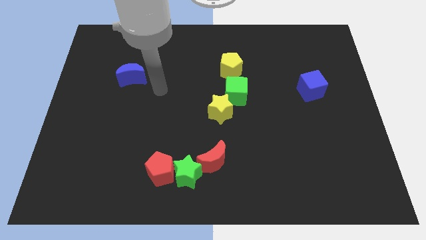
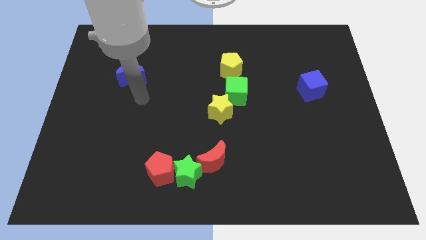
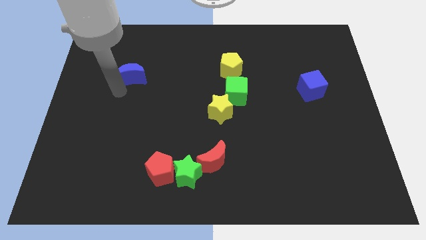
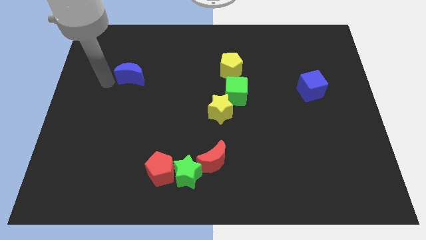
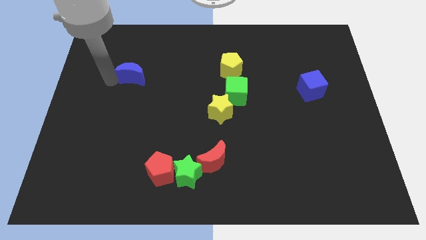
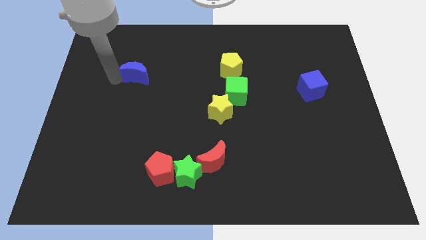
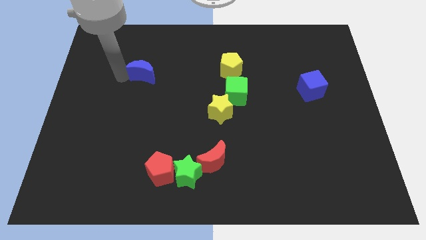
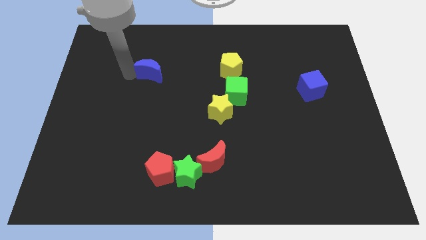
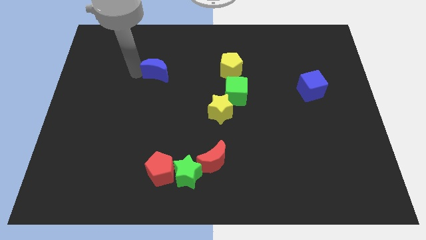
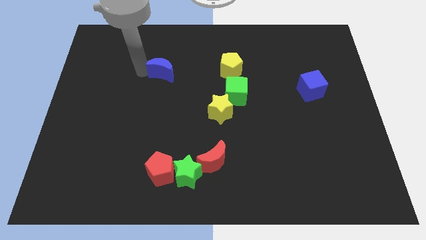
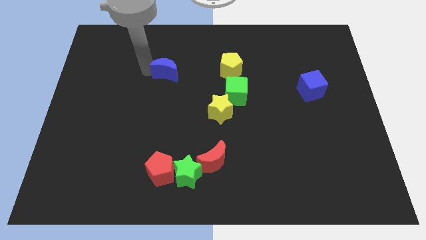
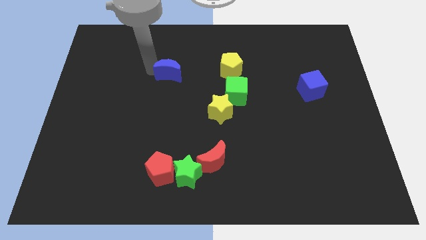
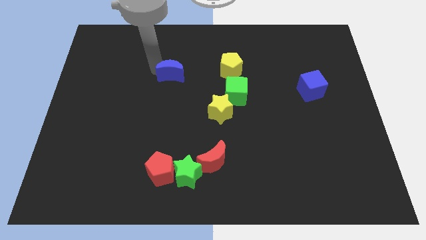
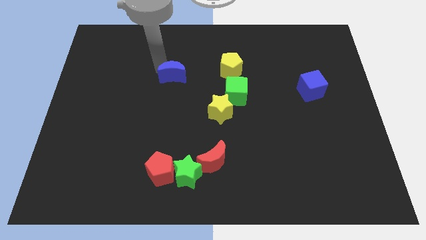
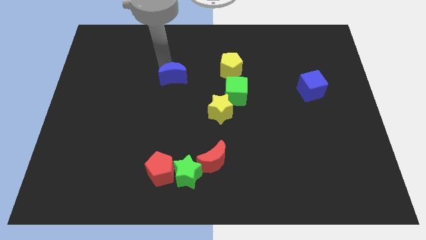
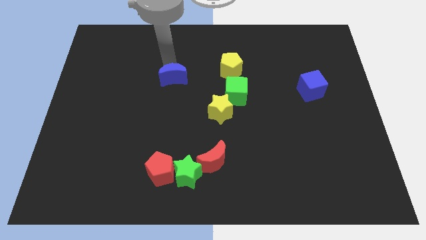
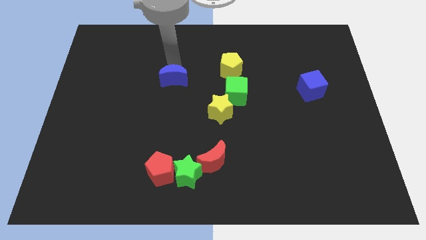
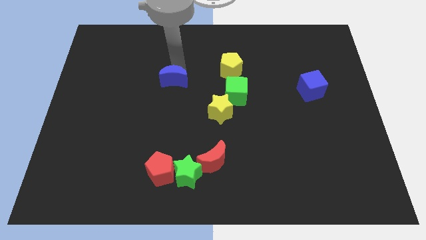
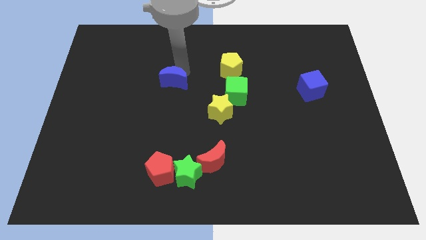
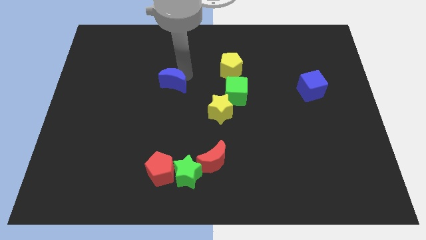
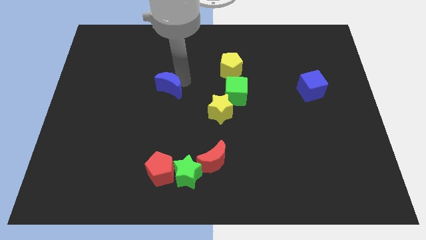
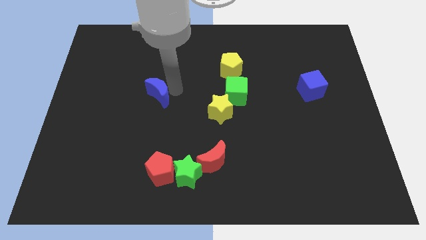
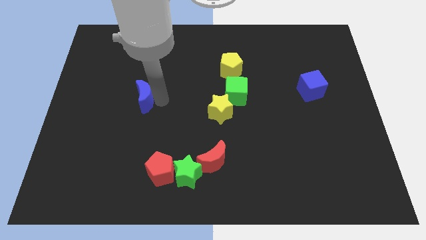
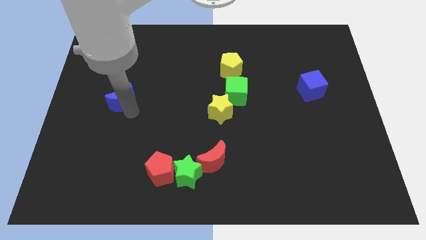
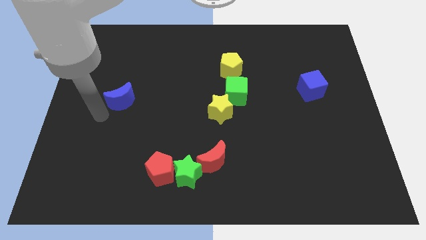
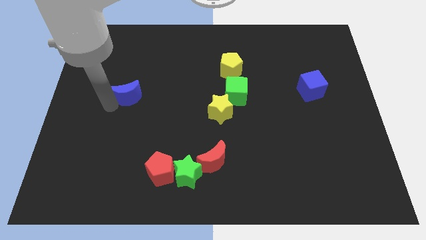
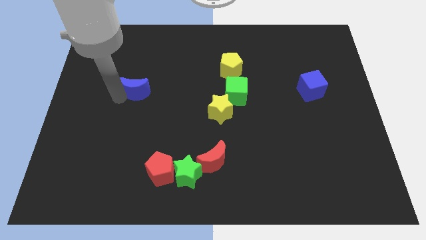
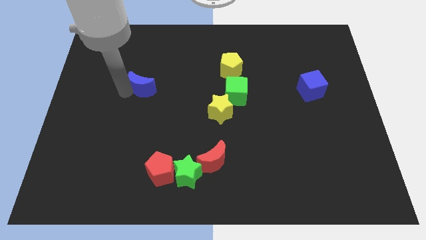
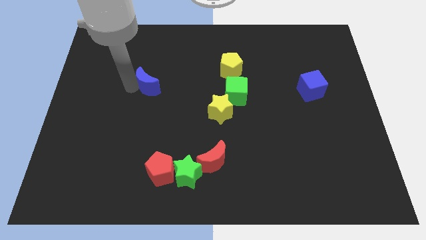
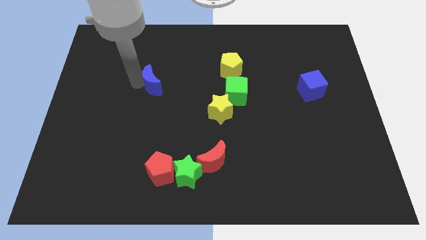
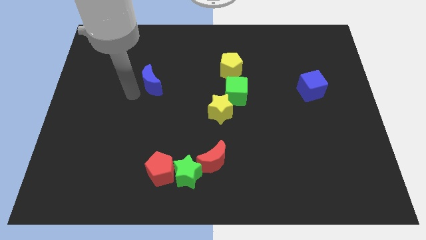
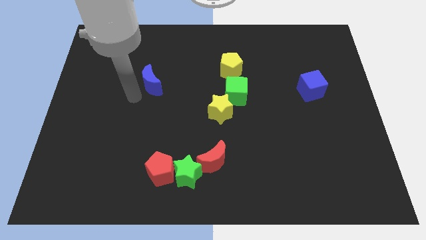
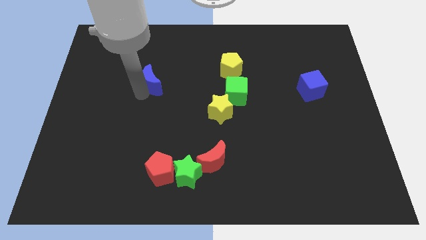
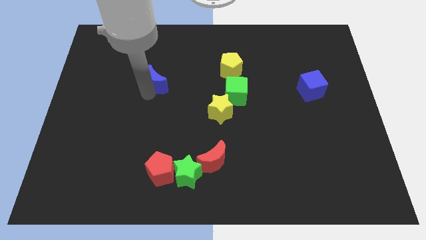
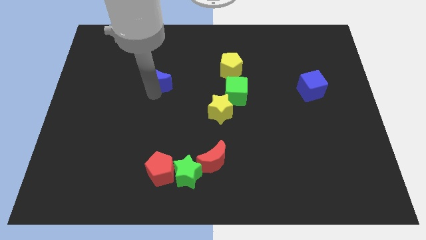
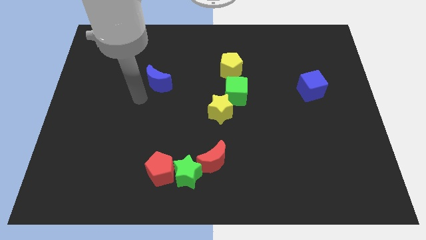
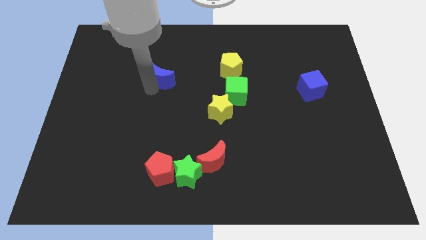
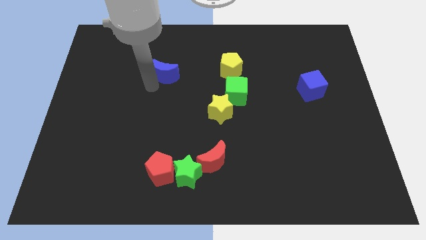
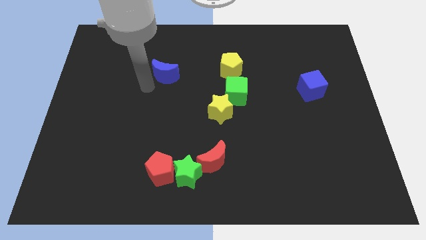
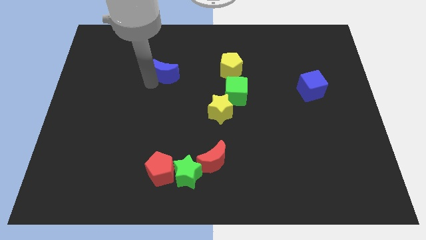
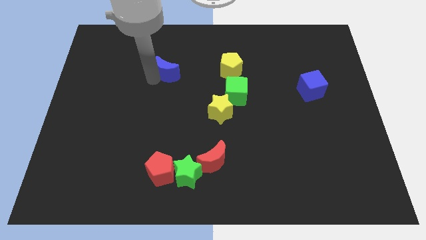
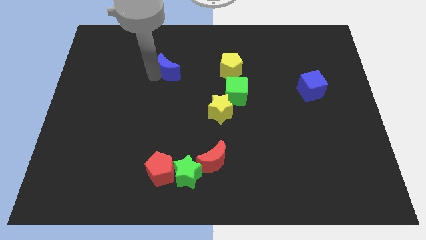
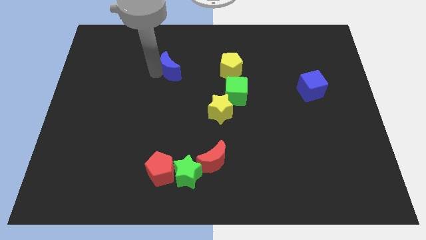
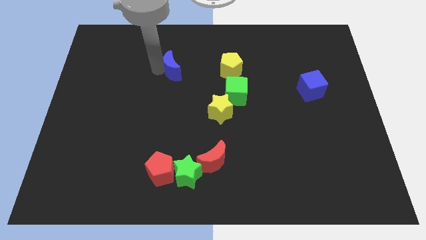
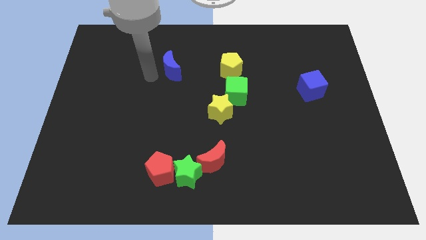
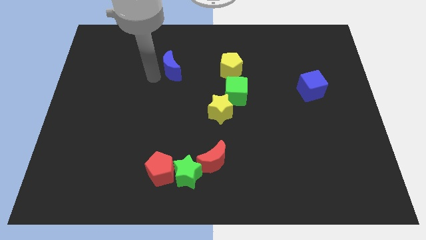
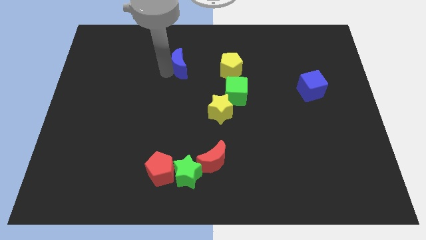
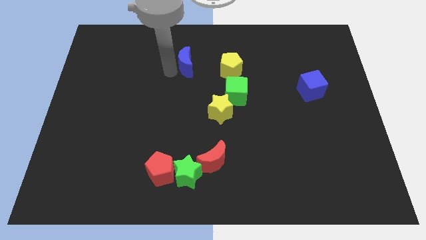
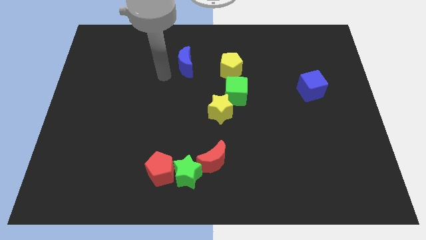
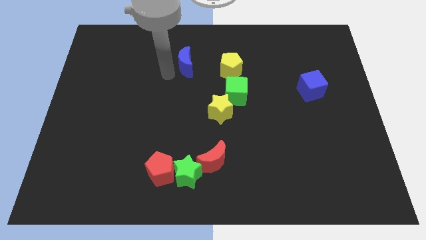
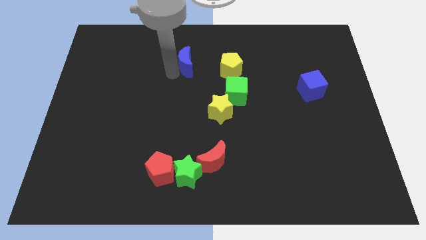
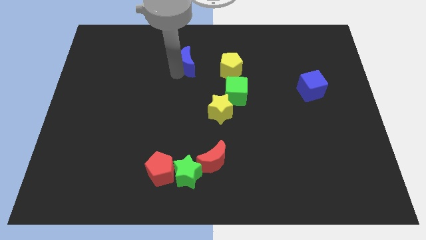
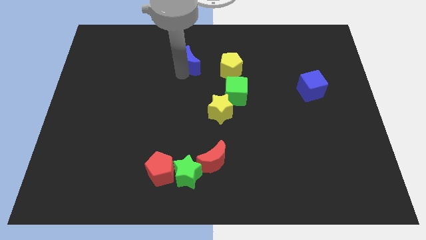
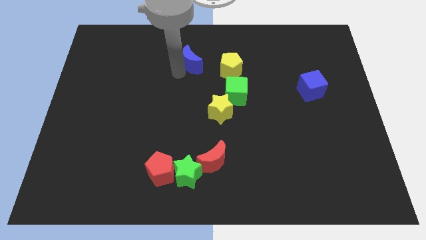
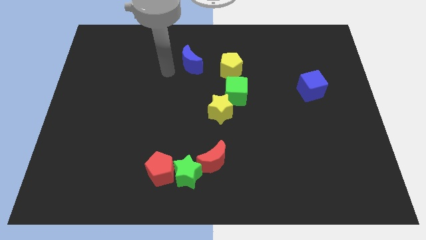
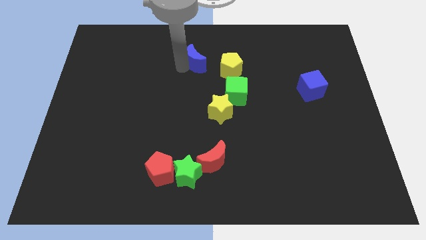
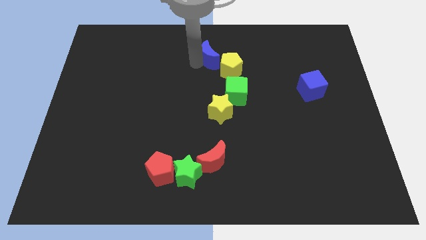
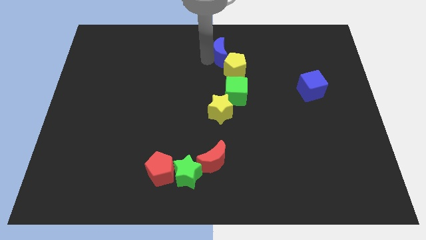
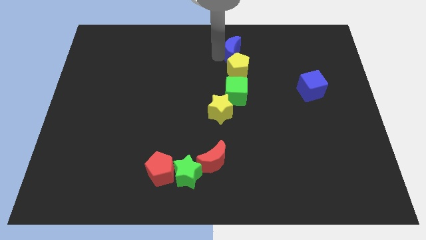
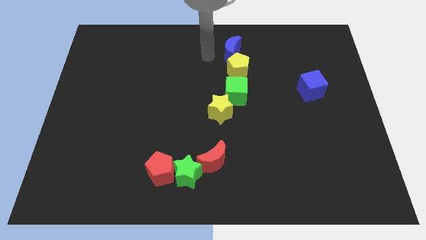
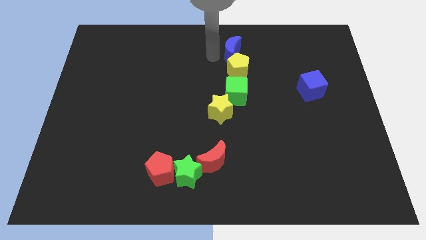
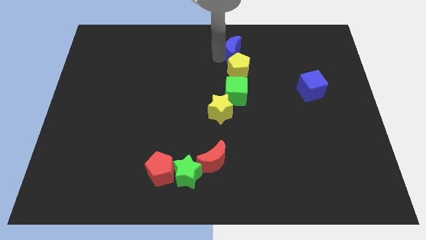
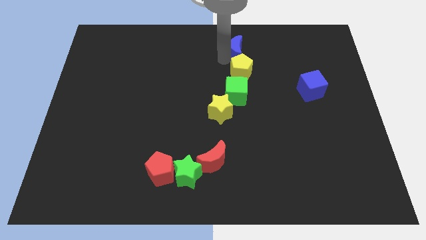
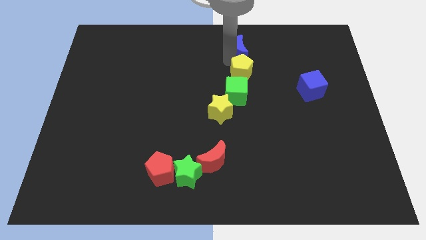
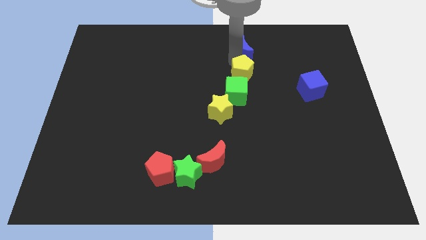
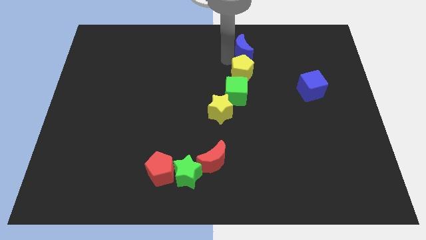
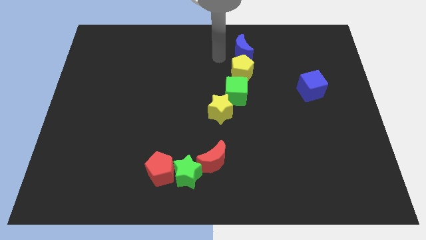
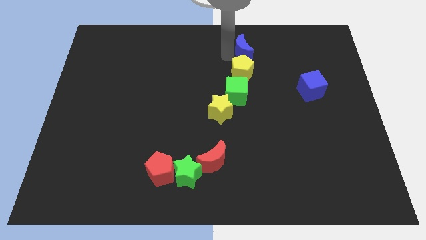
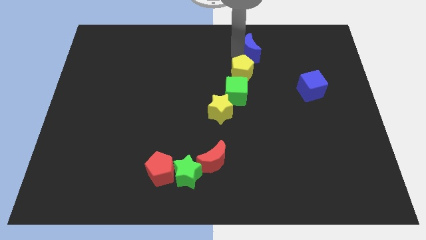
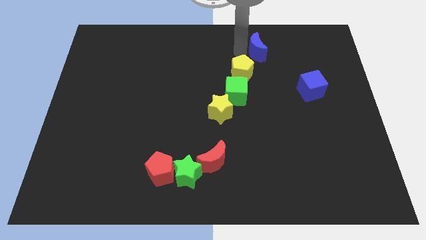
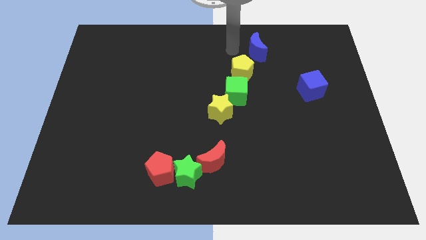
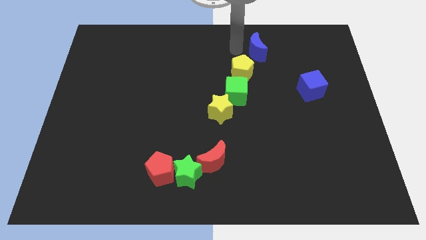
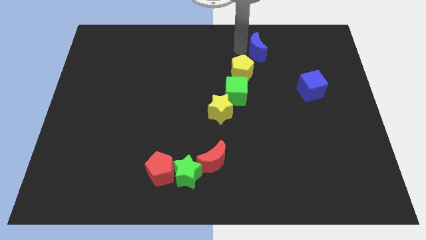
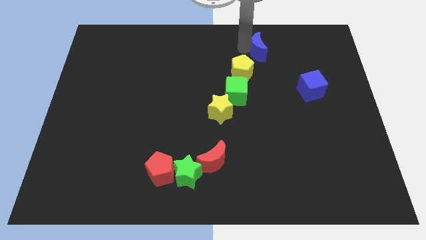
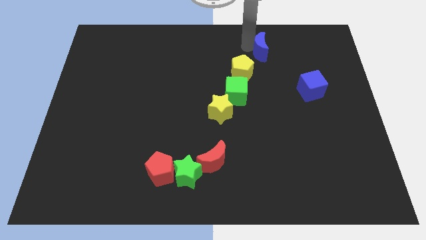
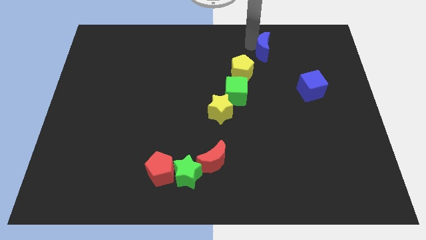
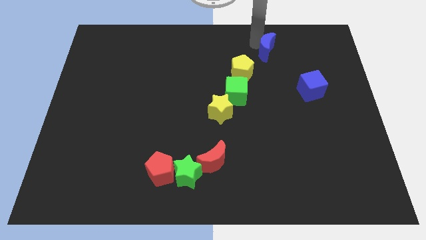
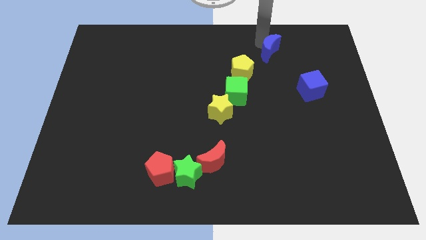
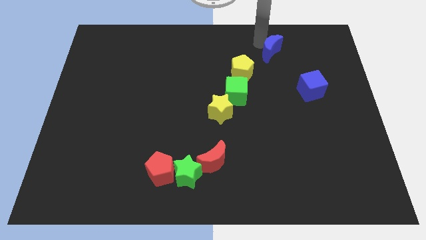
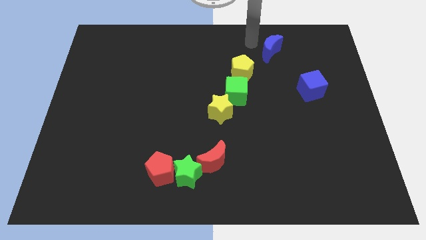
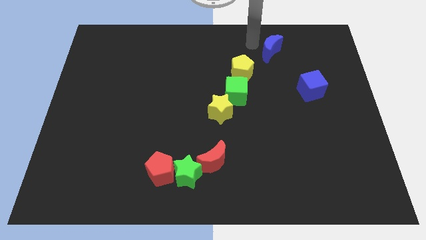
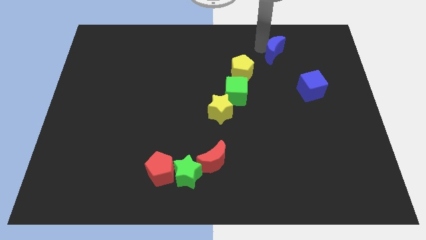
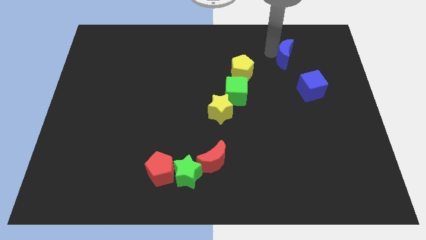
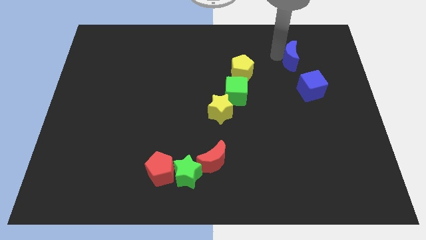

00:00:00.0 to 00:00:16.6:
move the blue moon to the top of the blue cube
